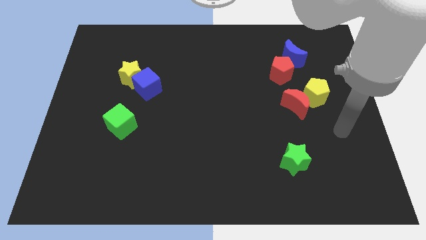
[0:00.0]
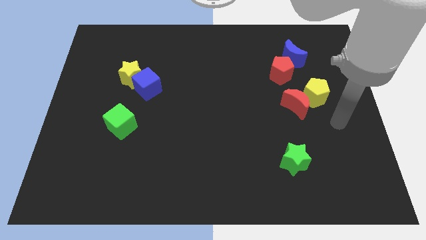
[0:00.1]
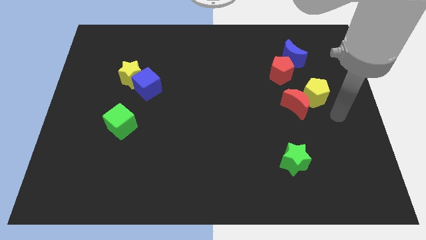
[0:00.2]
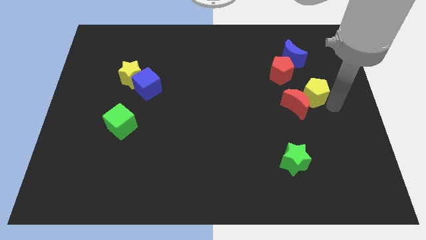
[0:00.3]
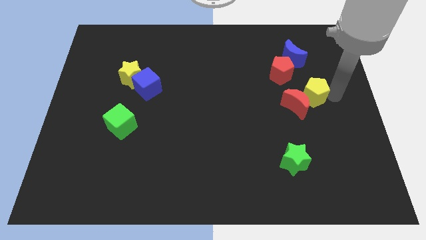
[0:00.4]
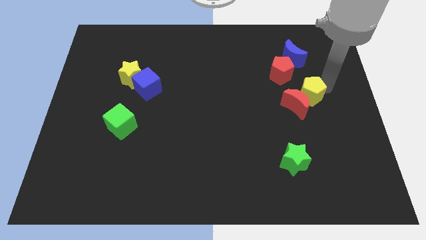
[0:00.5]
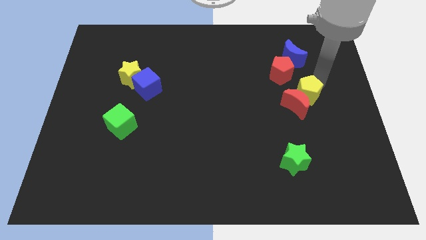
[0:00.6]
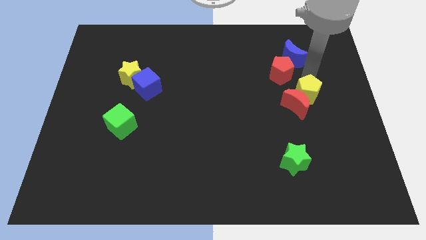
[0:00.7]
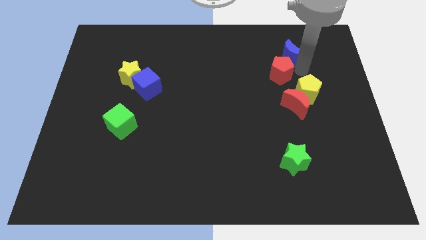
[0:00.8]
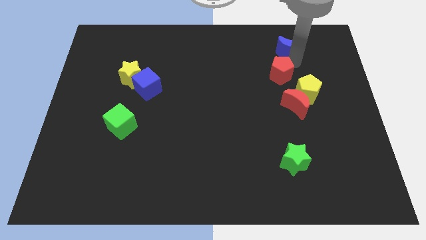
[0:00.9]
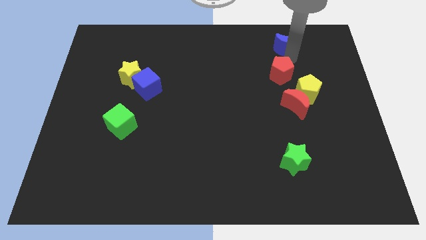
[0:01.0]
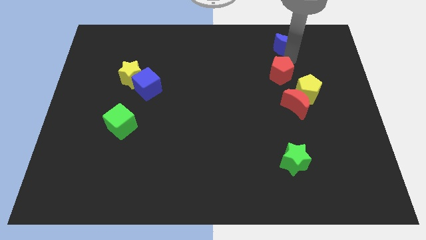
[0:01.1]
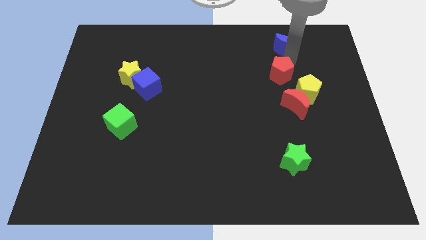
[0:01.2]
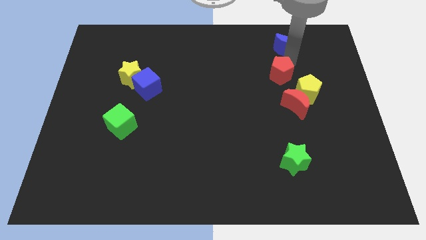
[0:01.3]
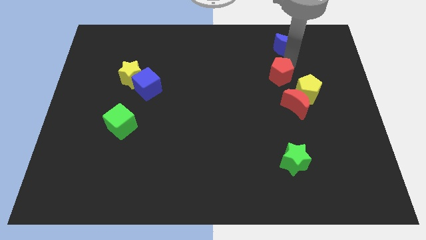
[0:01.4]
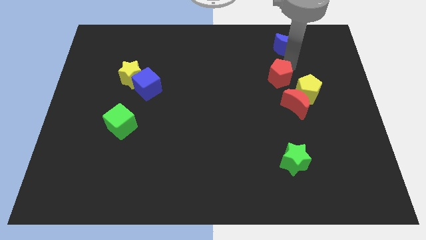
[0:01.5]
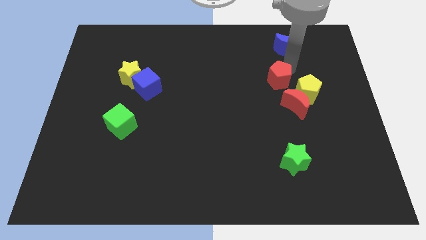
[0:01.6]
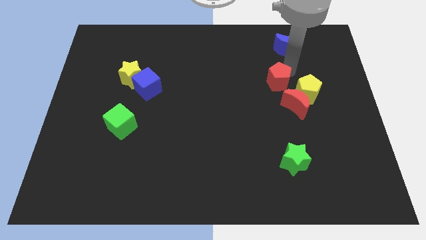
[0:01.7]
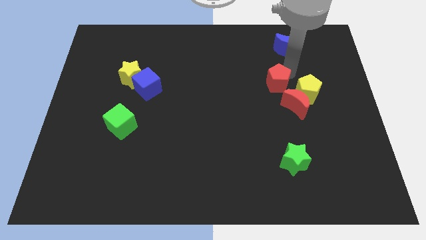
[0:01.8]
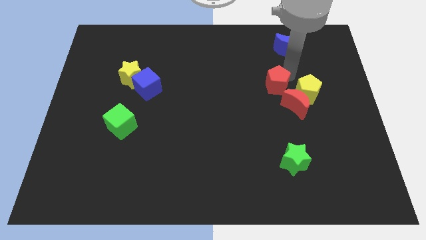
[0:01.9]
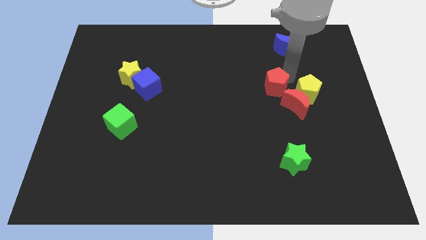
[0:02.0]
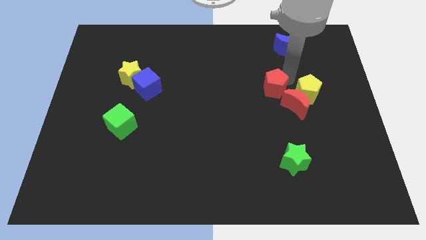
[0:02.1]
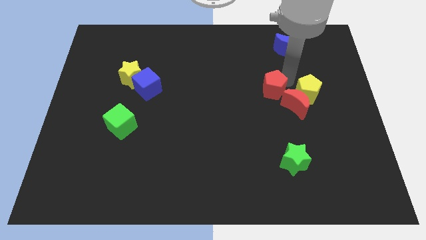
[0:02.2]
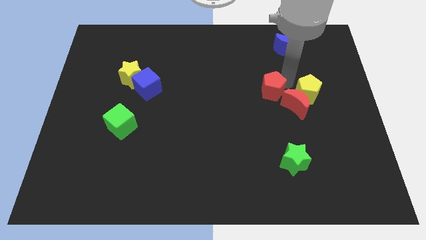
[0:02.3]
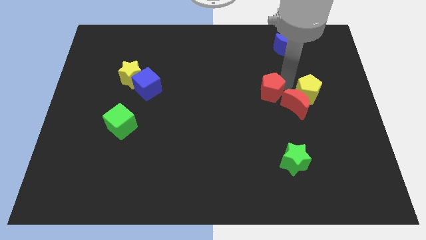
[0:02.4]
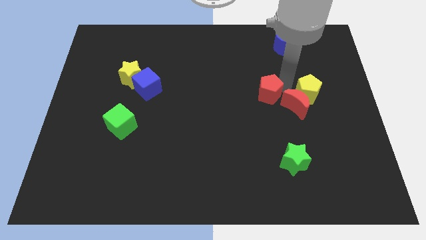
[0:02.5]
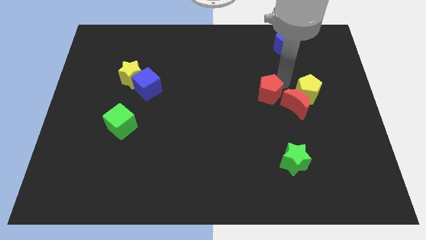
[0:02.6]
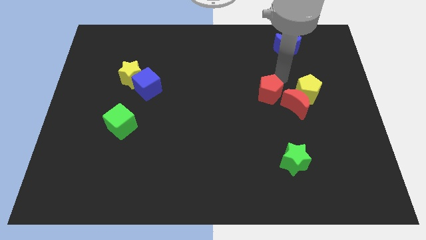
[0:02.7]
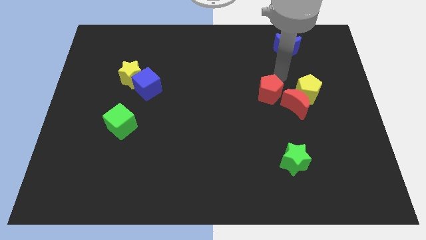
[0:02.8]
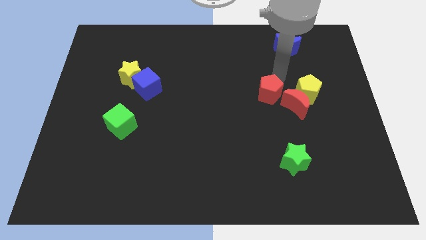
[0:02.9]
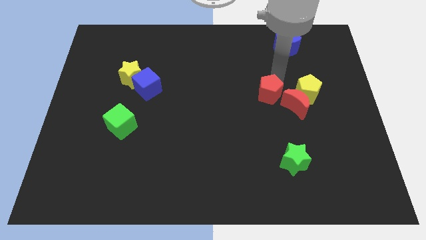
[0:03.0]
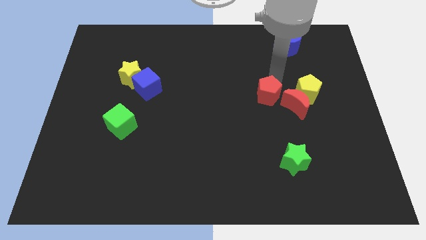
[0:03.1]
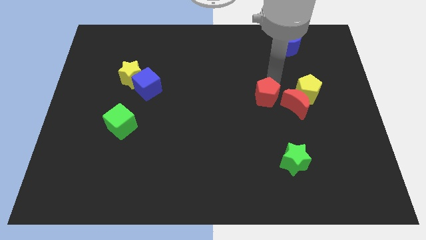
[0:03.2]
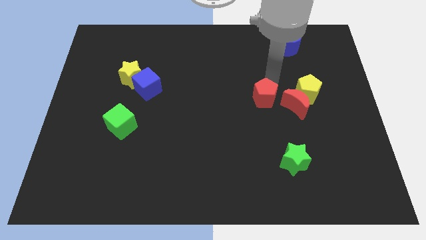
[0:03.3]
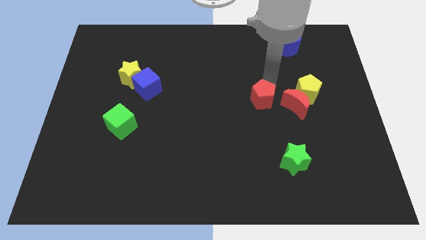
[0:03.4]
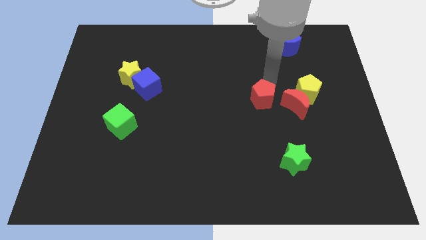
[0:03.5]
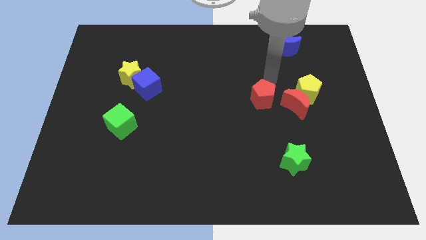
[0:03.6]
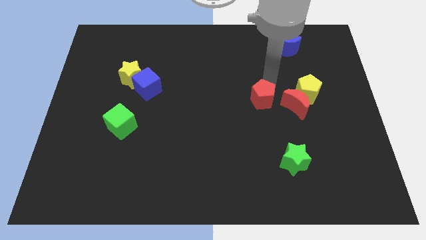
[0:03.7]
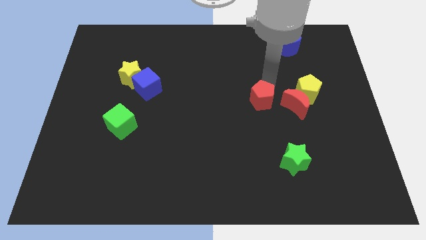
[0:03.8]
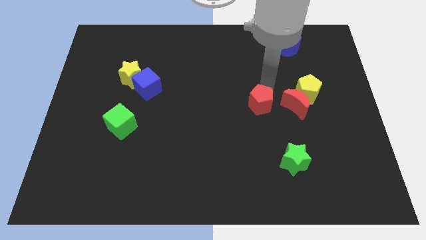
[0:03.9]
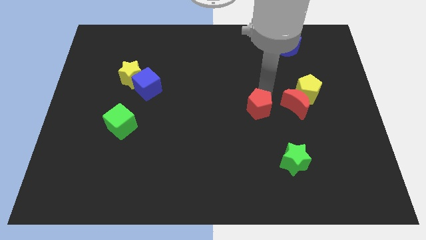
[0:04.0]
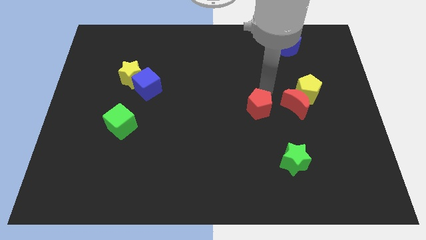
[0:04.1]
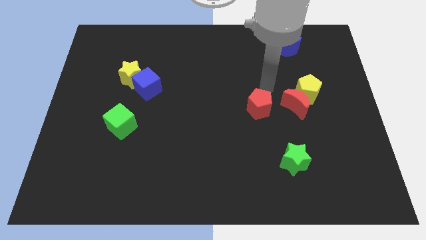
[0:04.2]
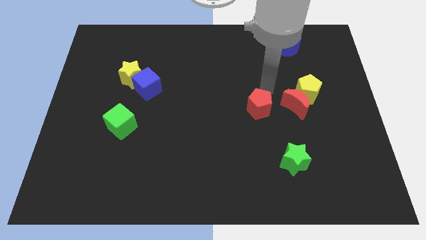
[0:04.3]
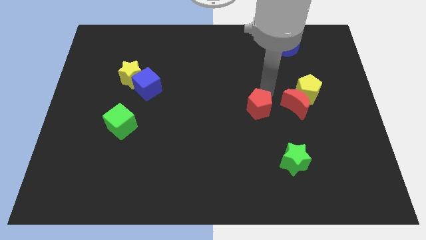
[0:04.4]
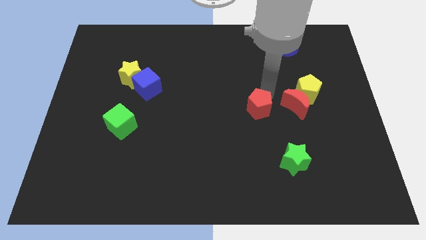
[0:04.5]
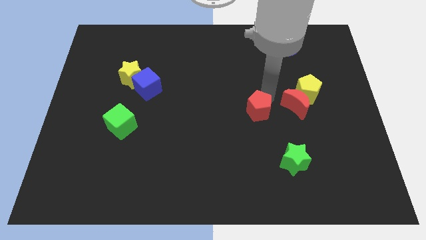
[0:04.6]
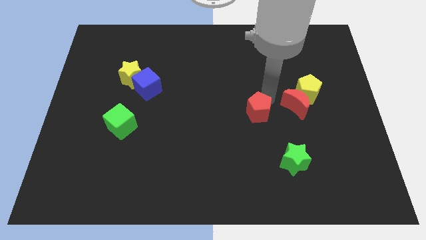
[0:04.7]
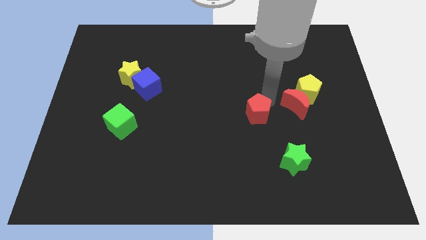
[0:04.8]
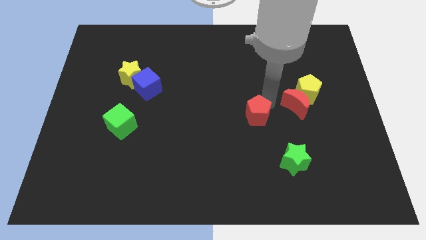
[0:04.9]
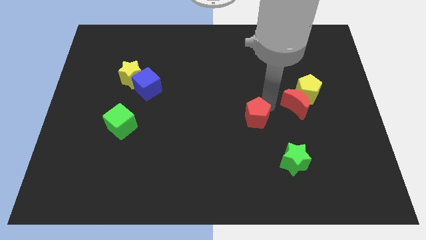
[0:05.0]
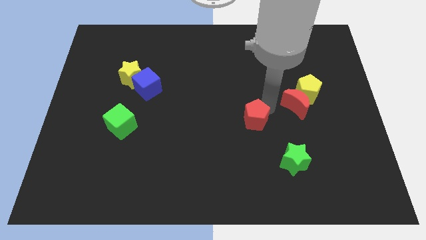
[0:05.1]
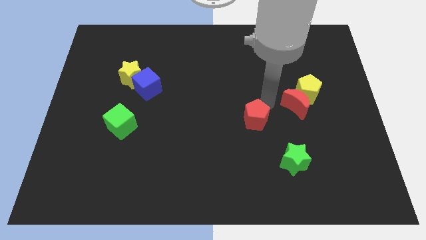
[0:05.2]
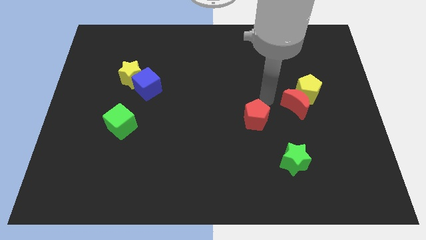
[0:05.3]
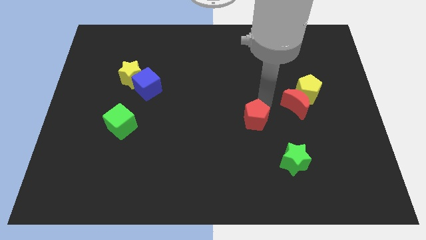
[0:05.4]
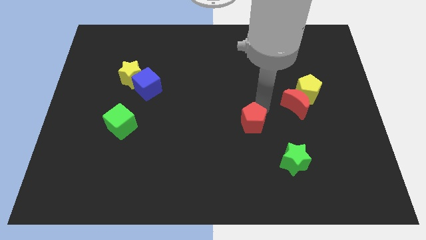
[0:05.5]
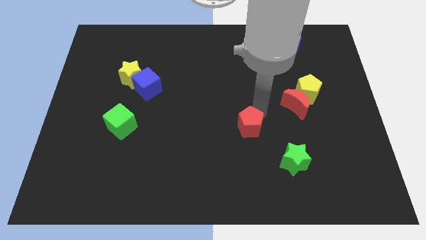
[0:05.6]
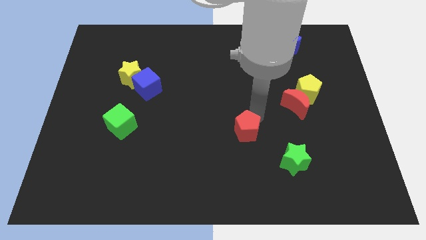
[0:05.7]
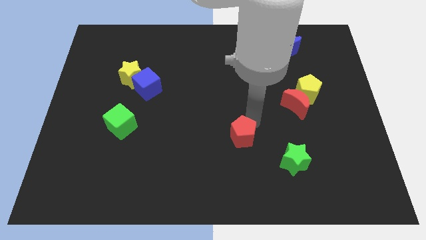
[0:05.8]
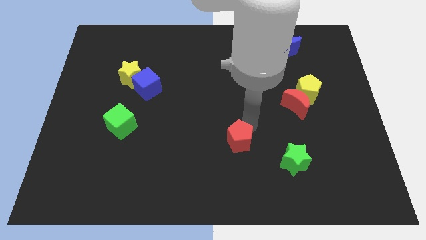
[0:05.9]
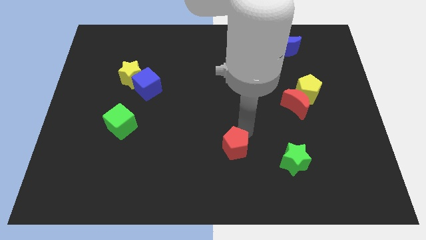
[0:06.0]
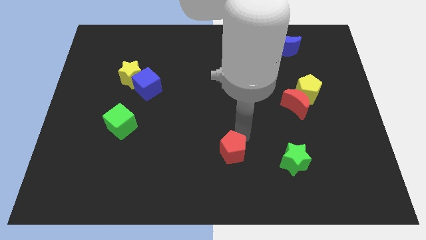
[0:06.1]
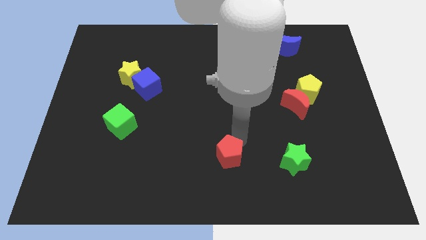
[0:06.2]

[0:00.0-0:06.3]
slide the red pentagon to the bottom side

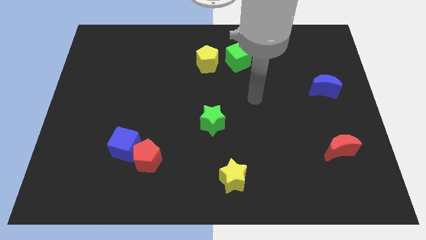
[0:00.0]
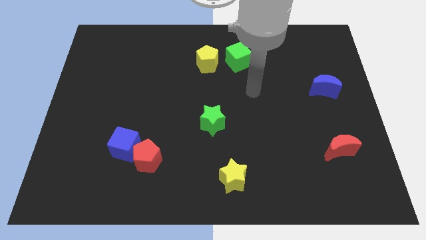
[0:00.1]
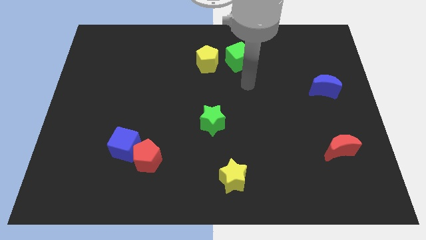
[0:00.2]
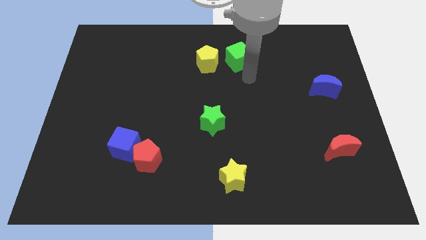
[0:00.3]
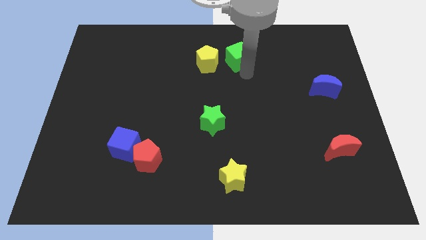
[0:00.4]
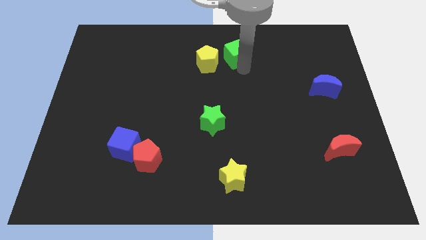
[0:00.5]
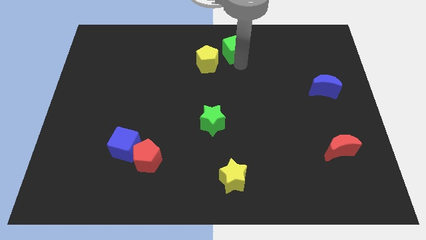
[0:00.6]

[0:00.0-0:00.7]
push the green cube to the towards your base
